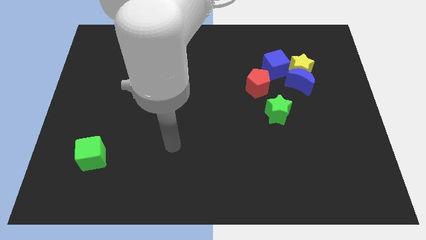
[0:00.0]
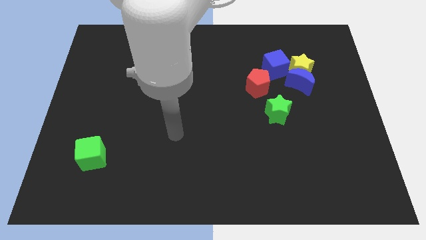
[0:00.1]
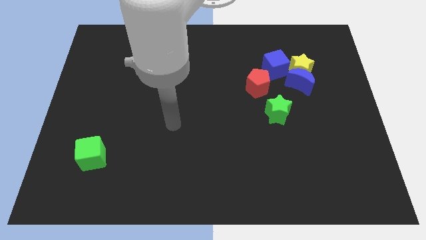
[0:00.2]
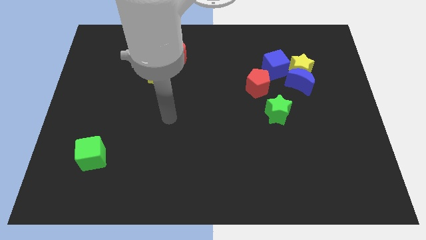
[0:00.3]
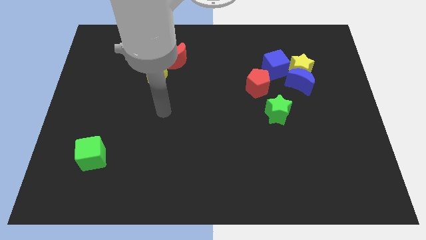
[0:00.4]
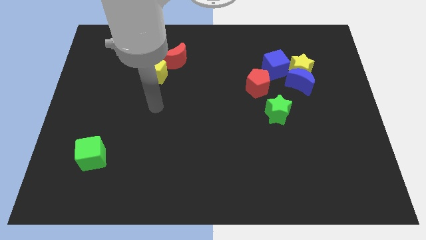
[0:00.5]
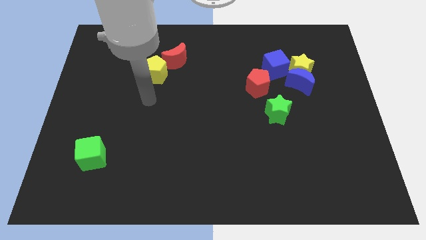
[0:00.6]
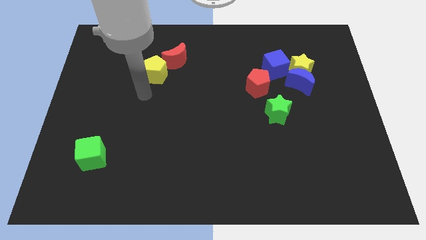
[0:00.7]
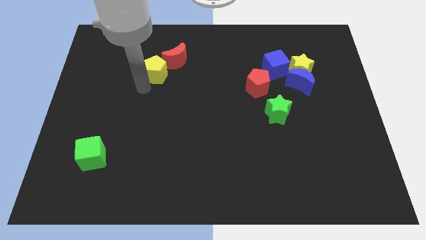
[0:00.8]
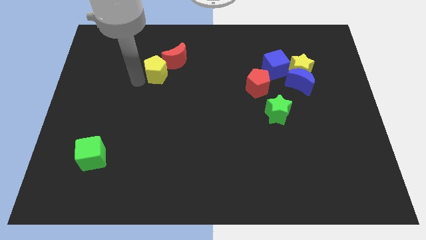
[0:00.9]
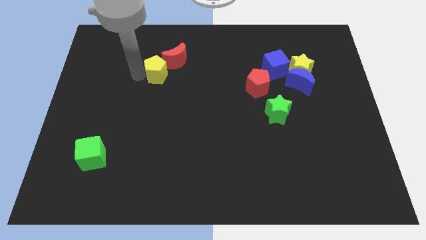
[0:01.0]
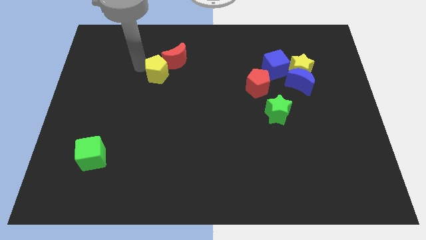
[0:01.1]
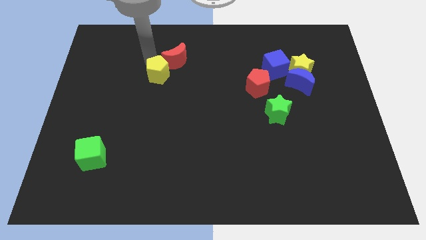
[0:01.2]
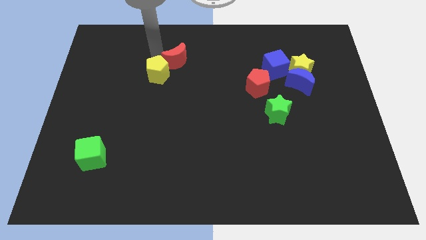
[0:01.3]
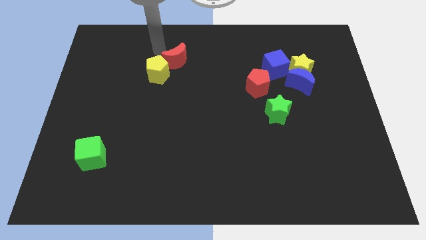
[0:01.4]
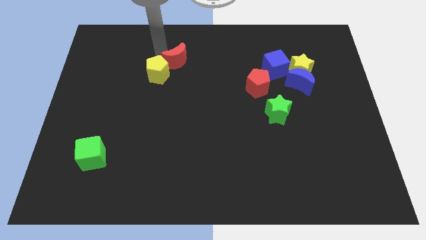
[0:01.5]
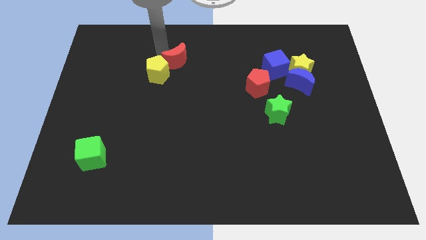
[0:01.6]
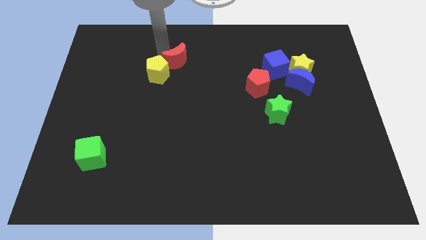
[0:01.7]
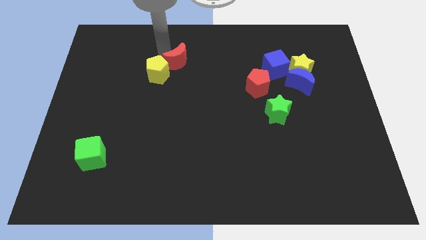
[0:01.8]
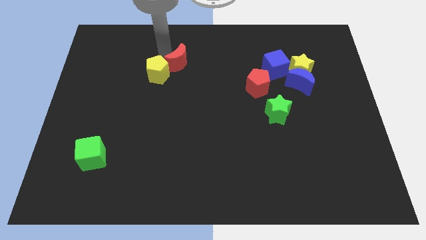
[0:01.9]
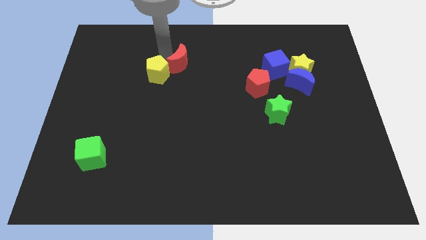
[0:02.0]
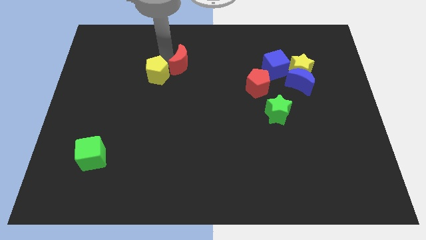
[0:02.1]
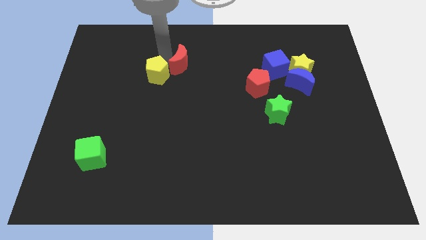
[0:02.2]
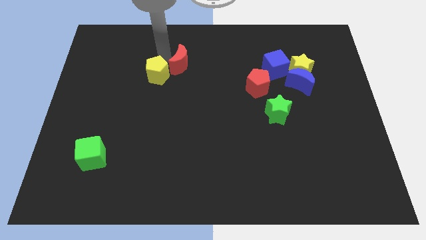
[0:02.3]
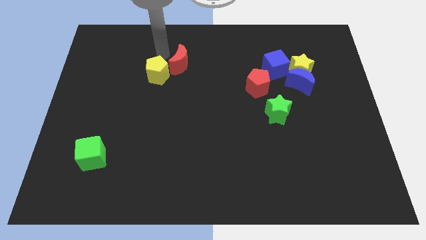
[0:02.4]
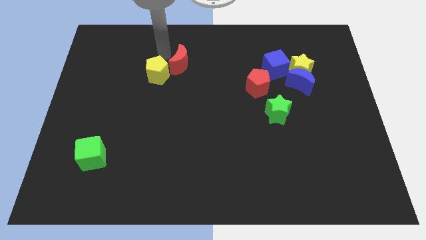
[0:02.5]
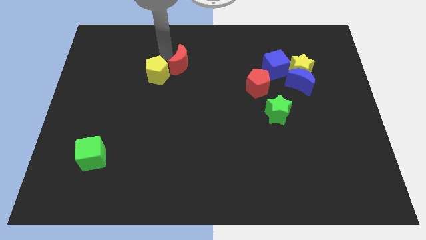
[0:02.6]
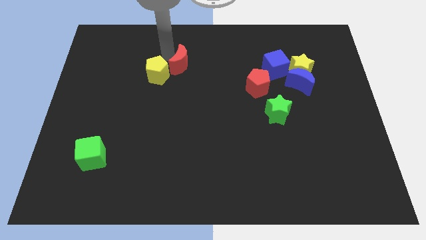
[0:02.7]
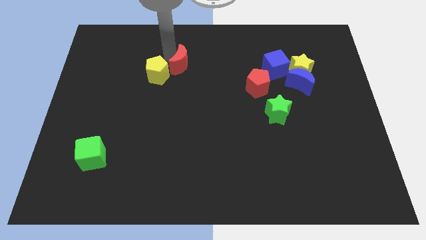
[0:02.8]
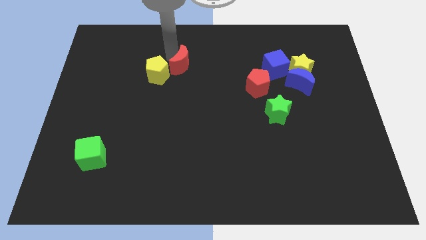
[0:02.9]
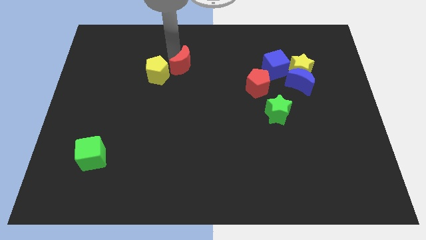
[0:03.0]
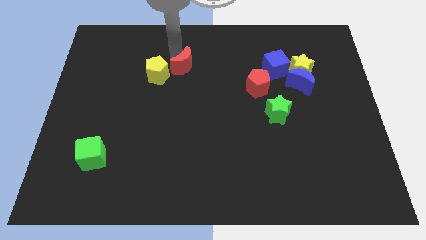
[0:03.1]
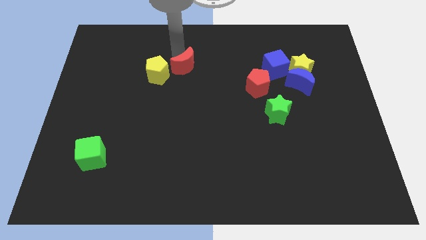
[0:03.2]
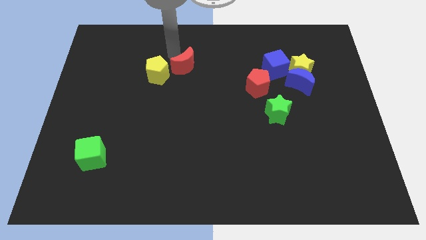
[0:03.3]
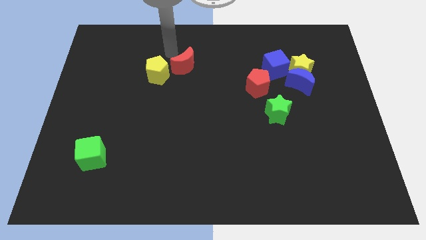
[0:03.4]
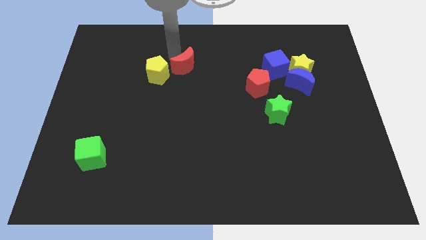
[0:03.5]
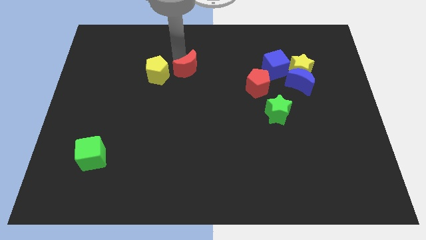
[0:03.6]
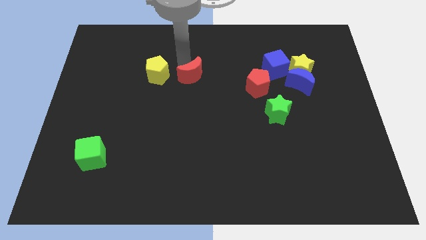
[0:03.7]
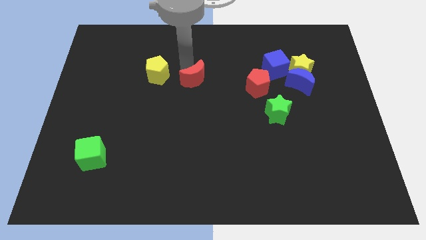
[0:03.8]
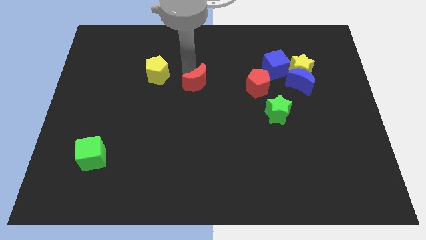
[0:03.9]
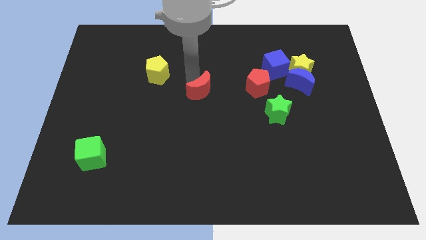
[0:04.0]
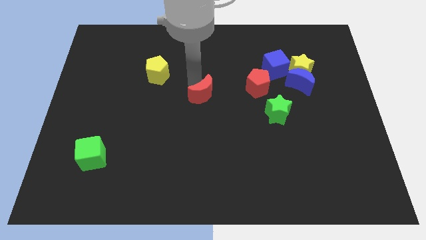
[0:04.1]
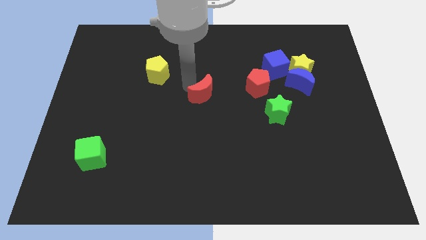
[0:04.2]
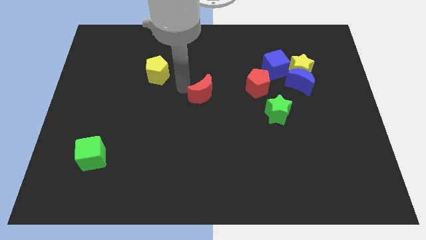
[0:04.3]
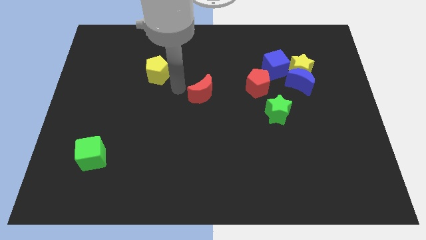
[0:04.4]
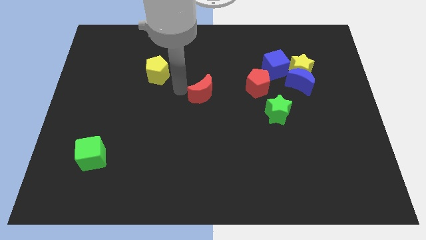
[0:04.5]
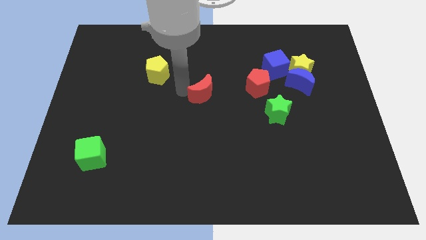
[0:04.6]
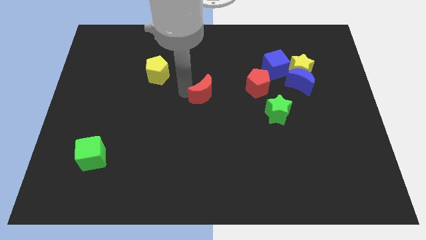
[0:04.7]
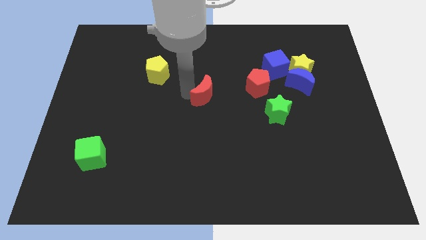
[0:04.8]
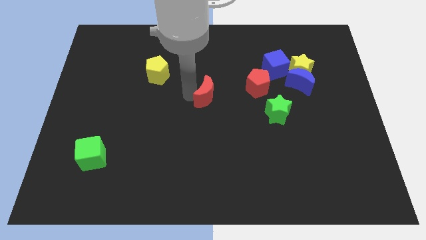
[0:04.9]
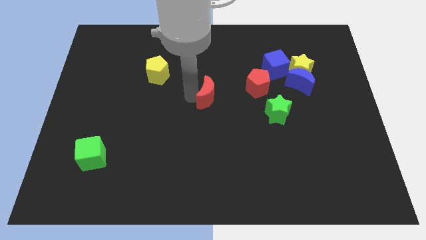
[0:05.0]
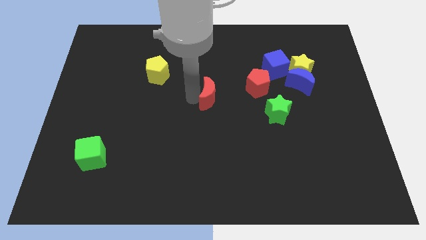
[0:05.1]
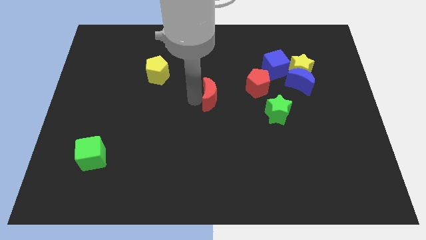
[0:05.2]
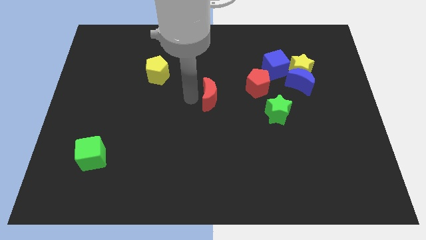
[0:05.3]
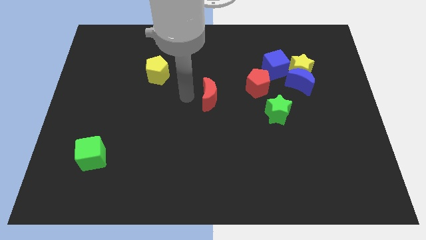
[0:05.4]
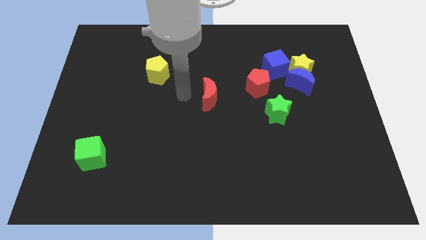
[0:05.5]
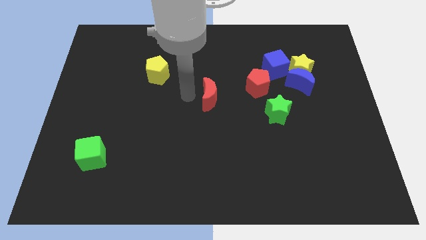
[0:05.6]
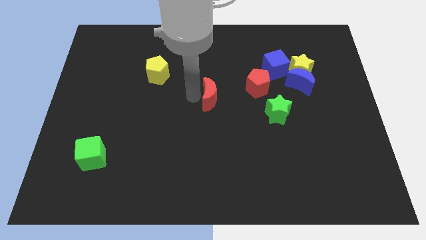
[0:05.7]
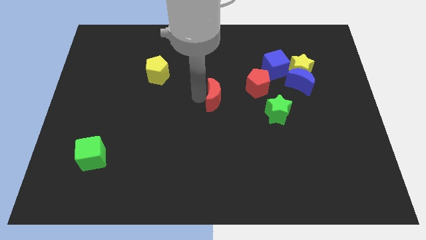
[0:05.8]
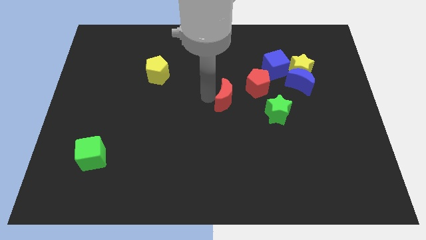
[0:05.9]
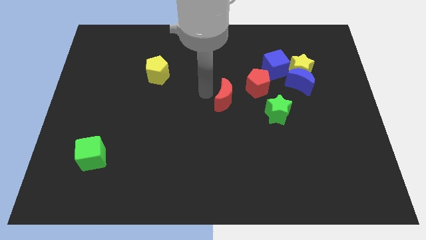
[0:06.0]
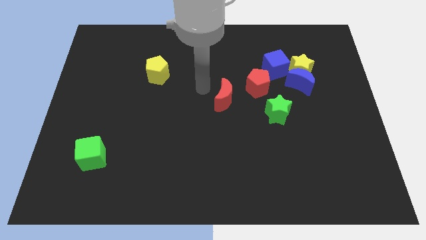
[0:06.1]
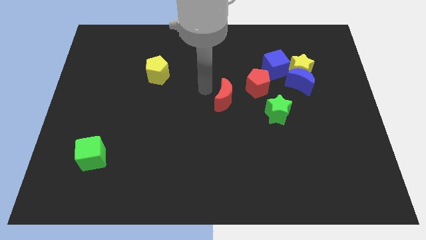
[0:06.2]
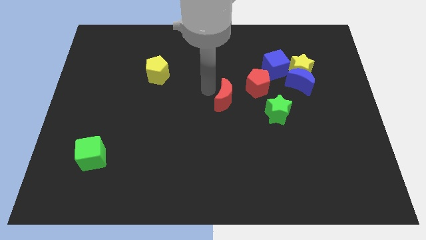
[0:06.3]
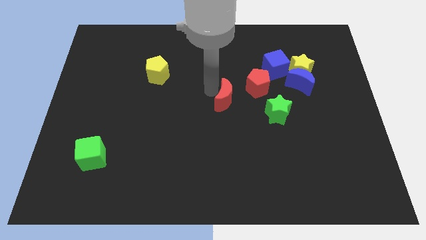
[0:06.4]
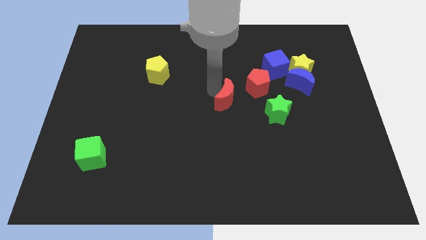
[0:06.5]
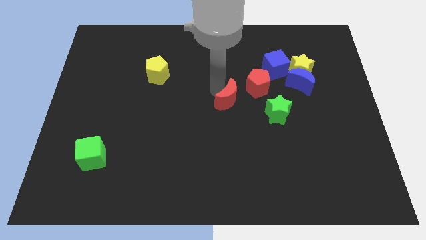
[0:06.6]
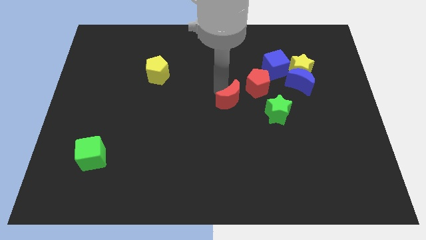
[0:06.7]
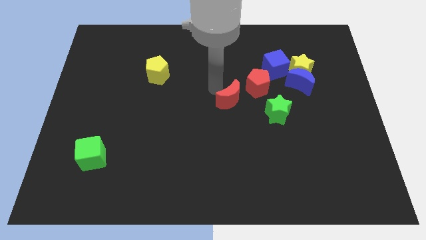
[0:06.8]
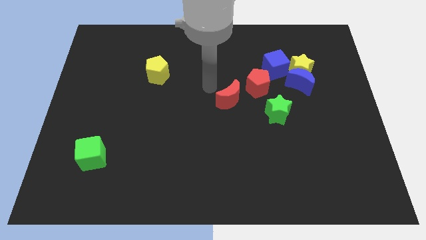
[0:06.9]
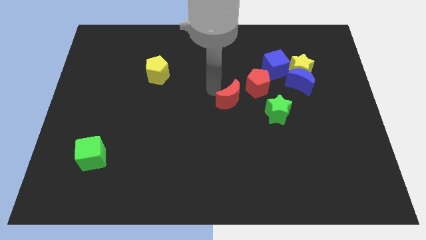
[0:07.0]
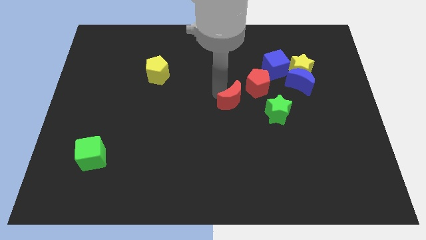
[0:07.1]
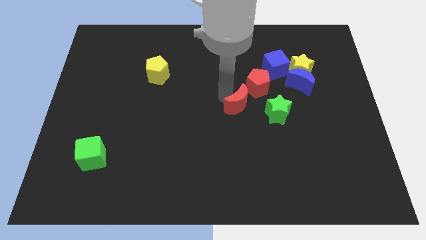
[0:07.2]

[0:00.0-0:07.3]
push the red moon diagonally downwards and to the right

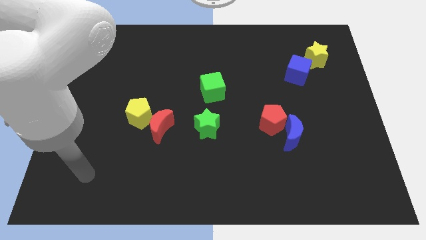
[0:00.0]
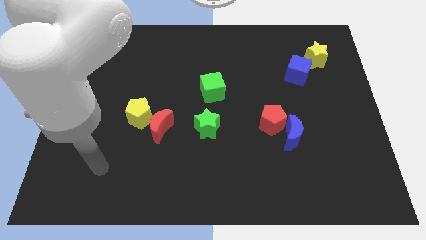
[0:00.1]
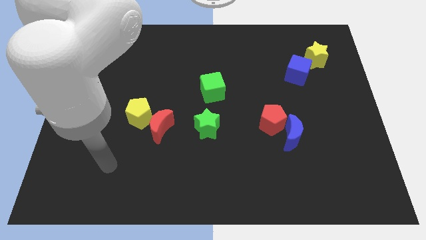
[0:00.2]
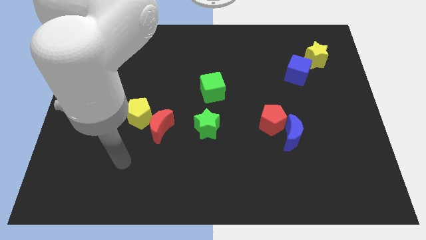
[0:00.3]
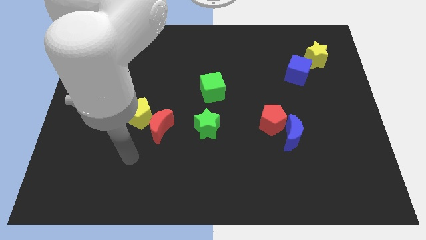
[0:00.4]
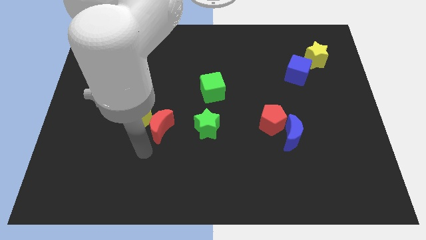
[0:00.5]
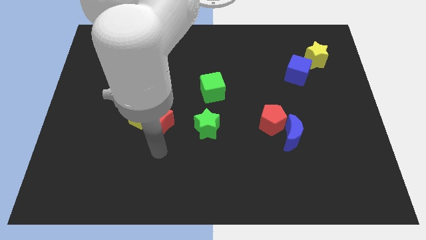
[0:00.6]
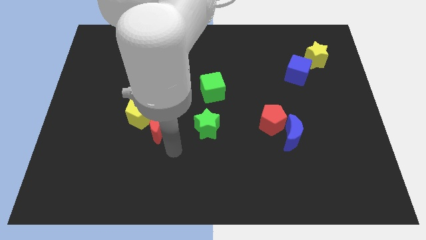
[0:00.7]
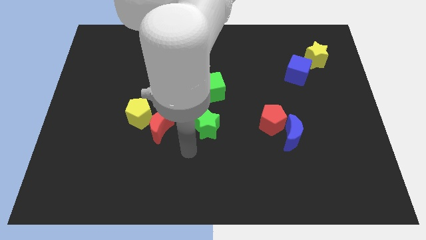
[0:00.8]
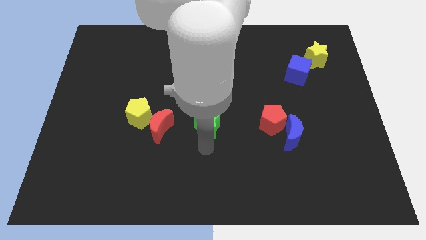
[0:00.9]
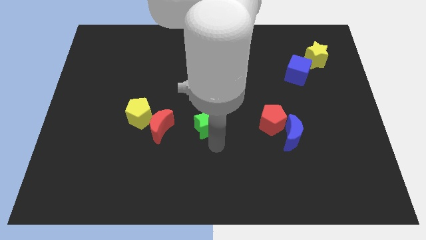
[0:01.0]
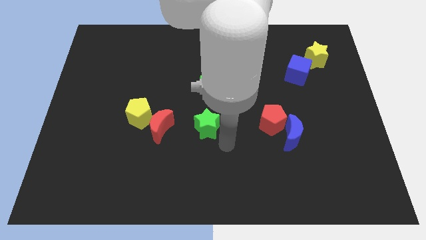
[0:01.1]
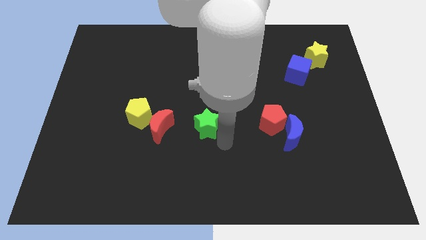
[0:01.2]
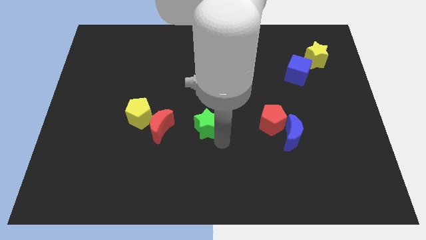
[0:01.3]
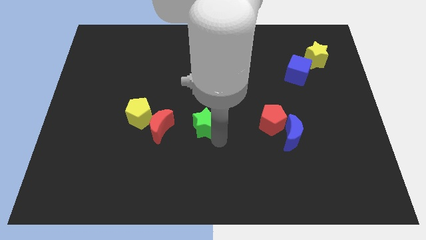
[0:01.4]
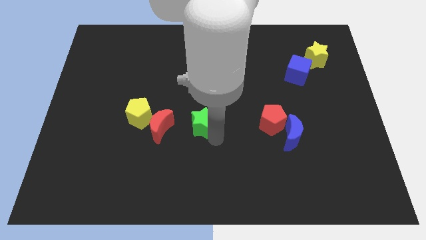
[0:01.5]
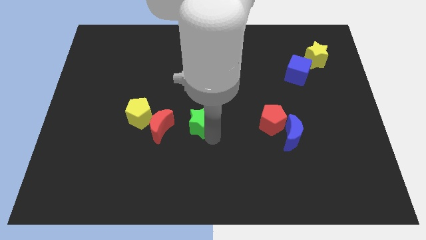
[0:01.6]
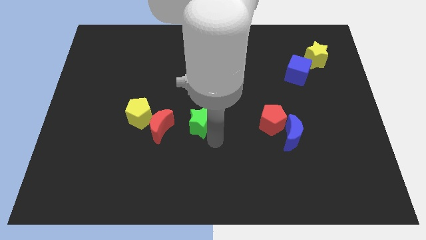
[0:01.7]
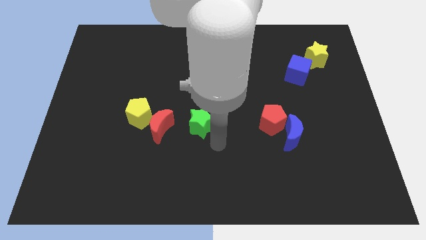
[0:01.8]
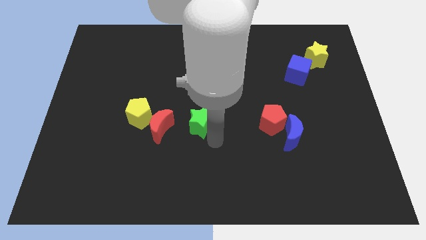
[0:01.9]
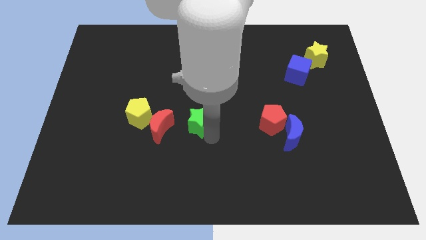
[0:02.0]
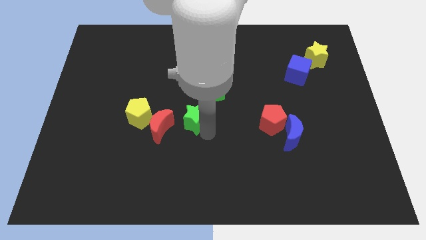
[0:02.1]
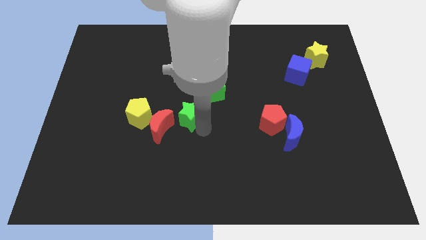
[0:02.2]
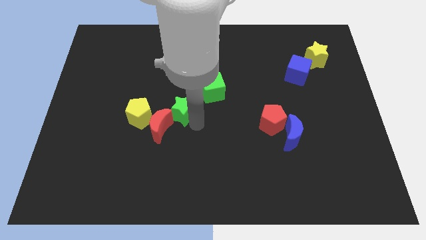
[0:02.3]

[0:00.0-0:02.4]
slightly push the green star upwards and then to the left
